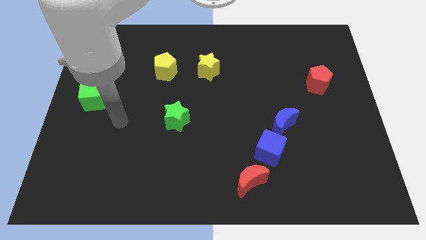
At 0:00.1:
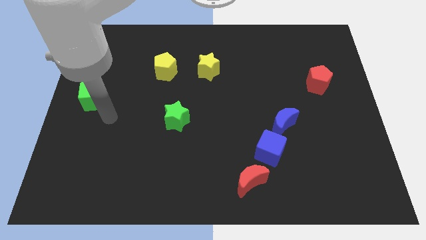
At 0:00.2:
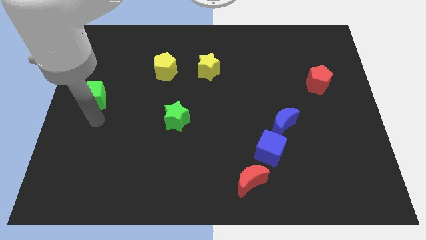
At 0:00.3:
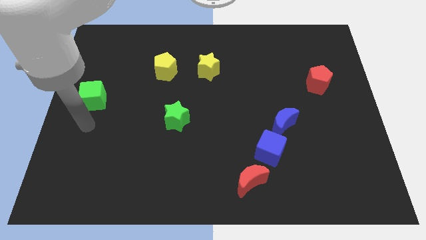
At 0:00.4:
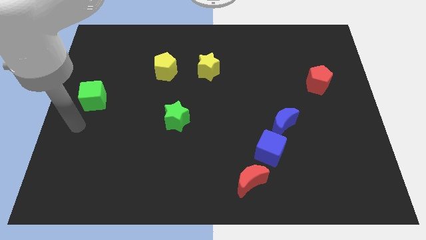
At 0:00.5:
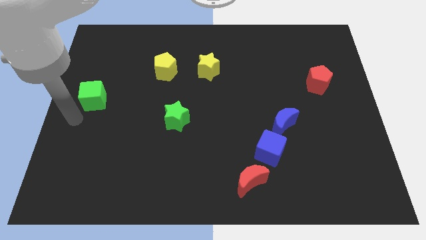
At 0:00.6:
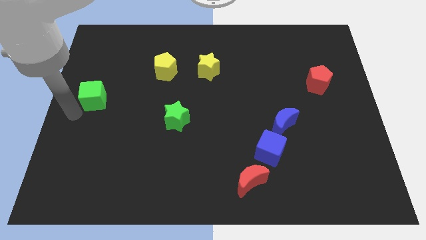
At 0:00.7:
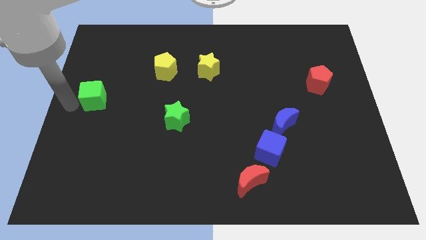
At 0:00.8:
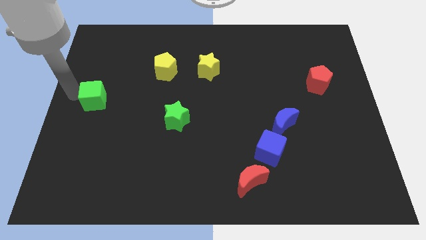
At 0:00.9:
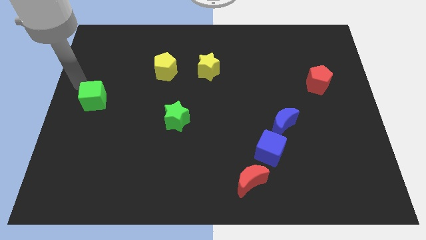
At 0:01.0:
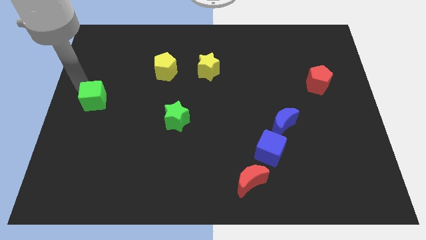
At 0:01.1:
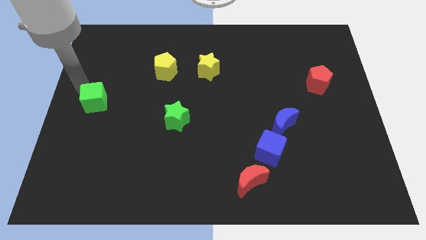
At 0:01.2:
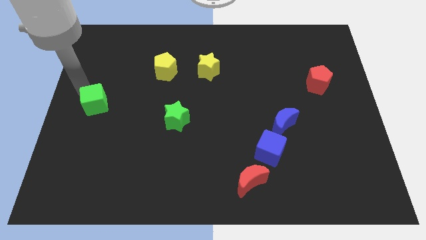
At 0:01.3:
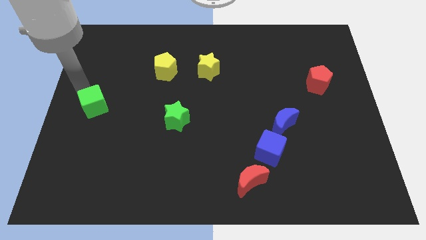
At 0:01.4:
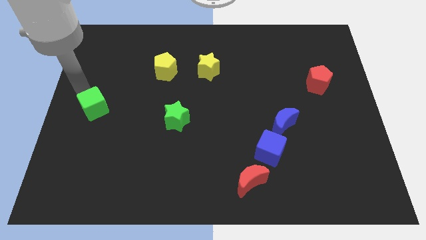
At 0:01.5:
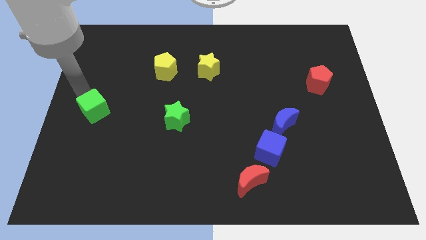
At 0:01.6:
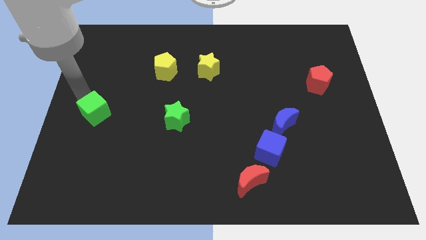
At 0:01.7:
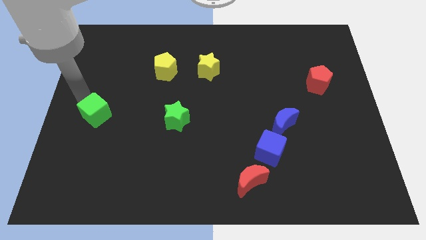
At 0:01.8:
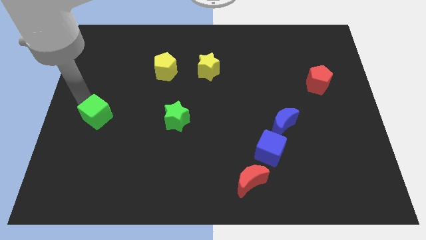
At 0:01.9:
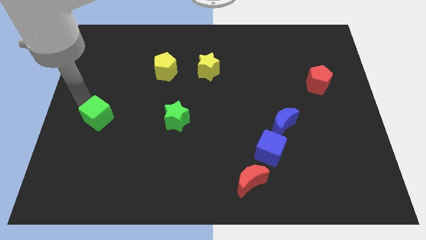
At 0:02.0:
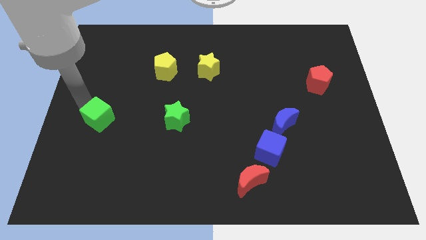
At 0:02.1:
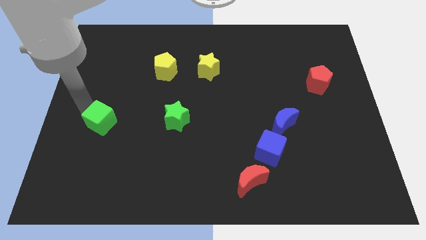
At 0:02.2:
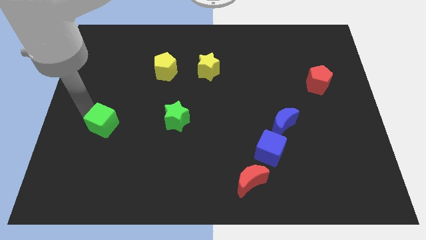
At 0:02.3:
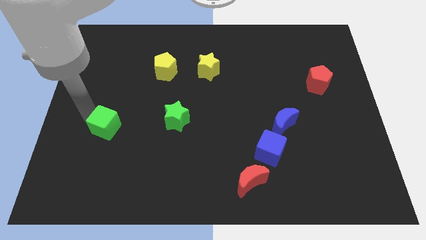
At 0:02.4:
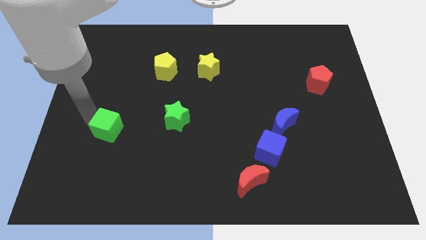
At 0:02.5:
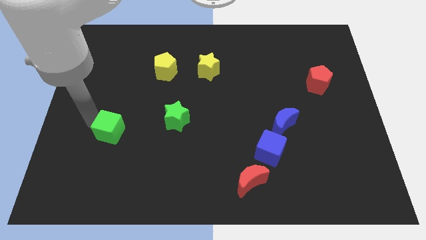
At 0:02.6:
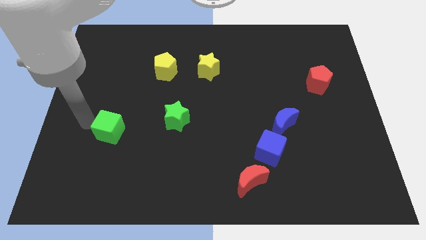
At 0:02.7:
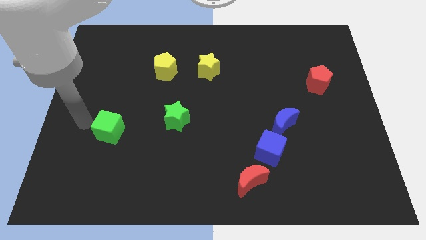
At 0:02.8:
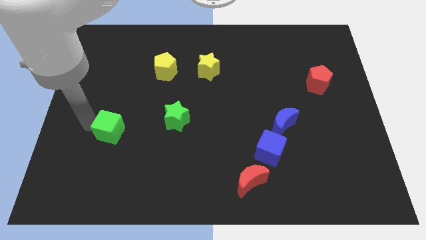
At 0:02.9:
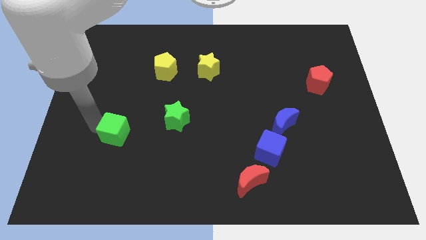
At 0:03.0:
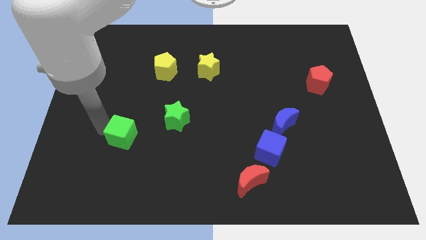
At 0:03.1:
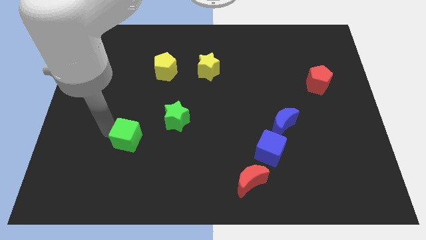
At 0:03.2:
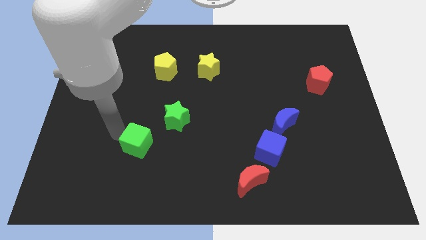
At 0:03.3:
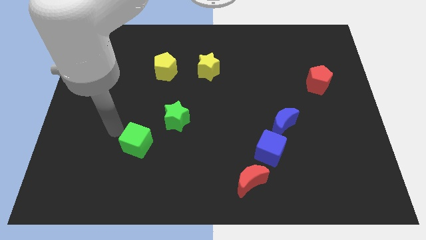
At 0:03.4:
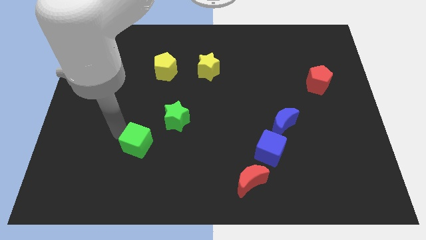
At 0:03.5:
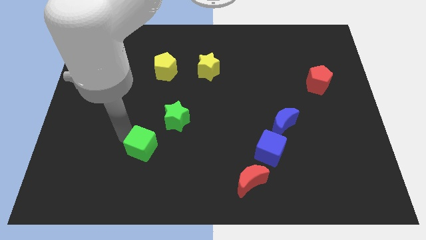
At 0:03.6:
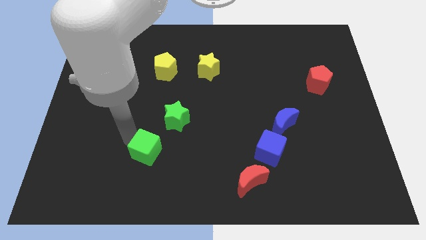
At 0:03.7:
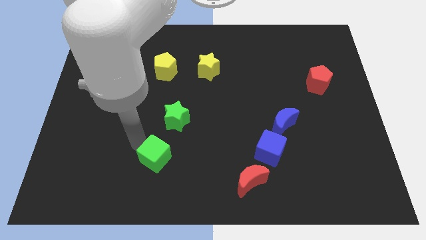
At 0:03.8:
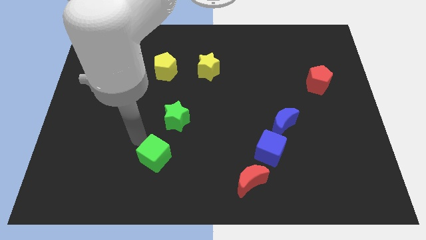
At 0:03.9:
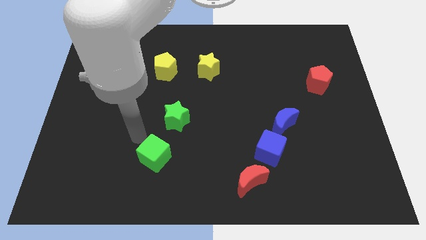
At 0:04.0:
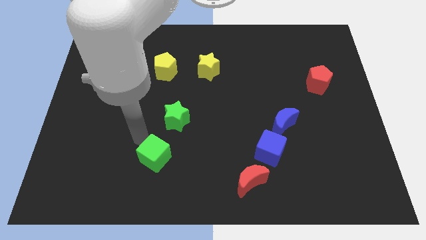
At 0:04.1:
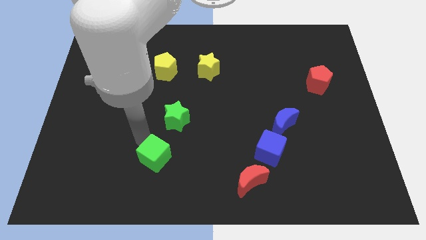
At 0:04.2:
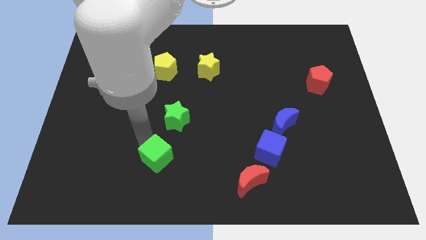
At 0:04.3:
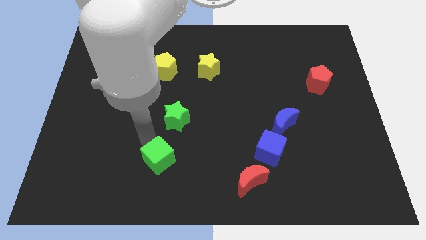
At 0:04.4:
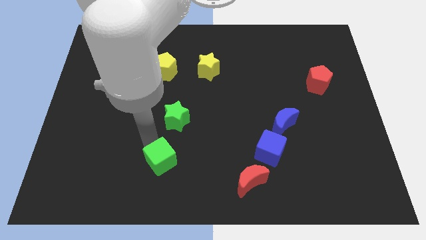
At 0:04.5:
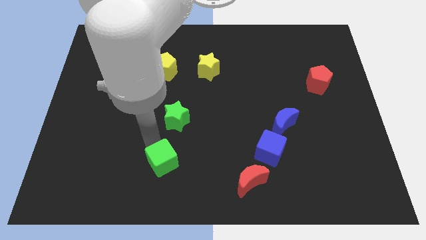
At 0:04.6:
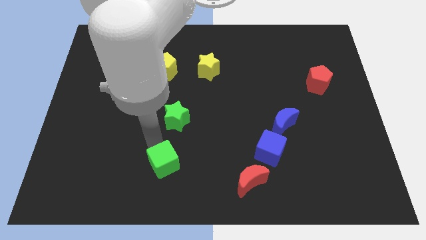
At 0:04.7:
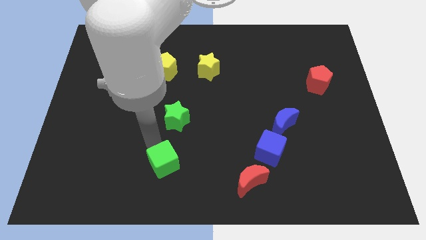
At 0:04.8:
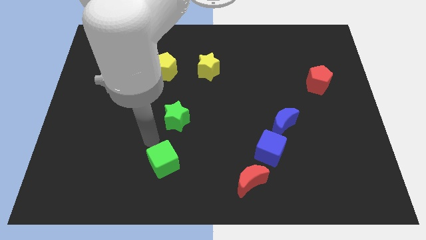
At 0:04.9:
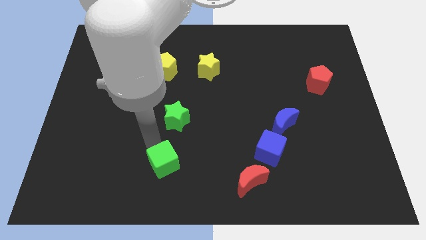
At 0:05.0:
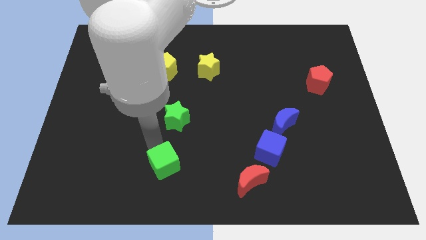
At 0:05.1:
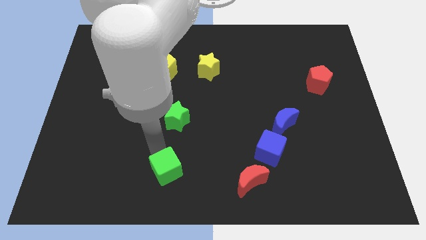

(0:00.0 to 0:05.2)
put the green cube to the bottom side

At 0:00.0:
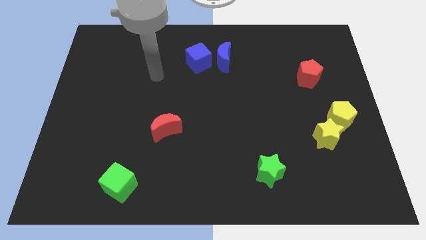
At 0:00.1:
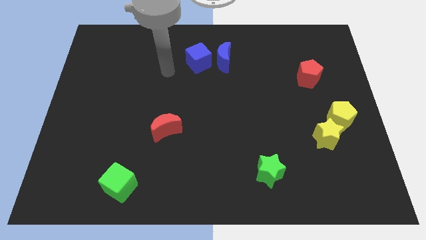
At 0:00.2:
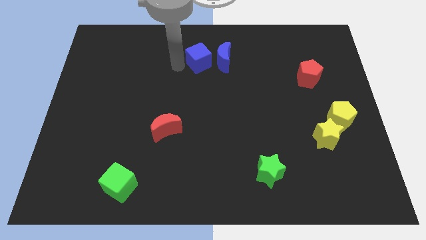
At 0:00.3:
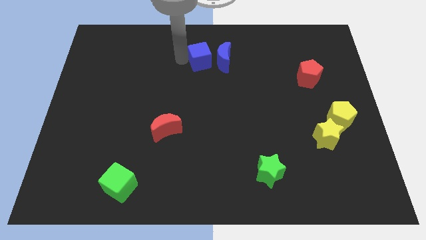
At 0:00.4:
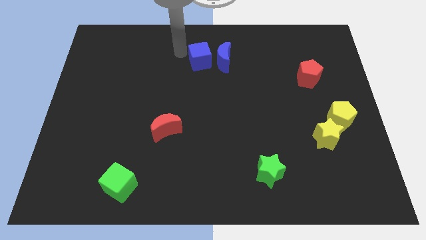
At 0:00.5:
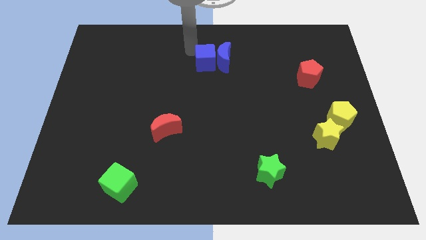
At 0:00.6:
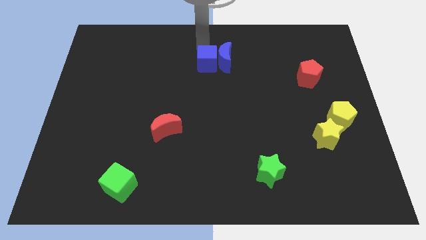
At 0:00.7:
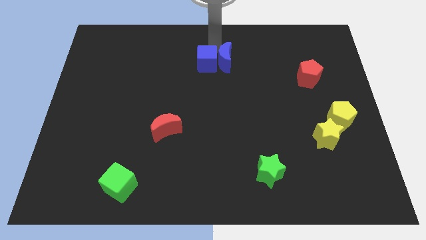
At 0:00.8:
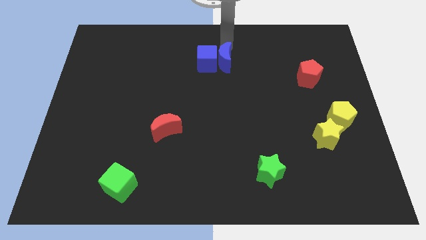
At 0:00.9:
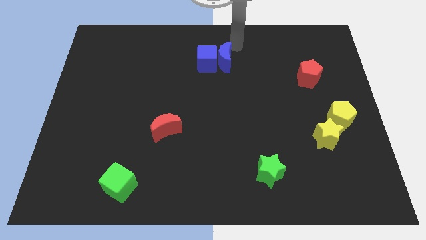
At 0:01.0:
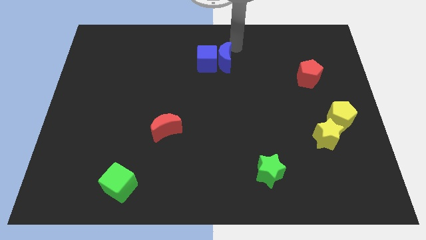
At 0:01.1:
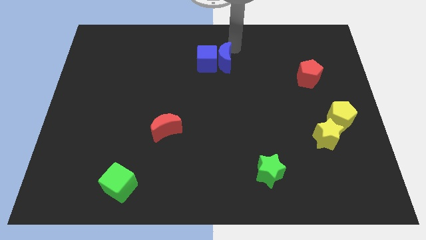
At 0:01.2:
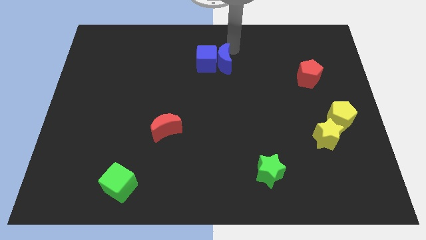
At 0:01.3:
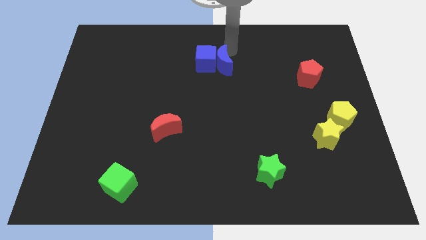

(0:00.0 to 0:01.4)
push the blue moon to the center

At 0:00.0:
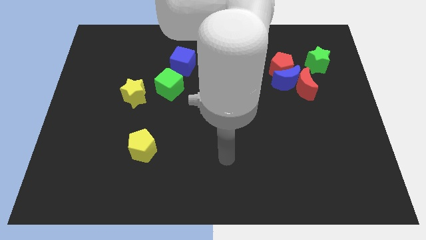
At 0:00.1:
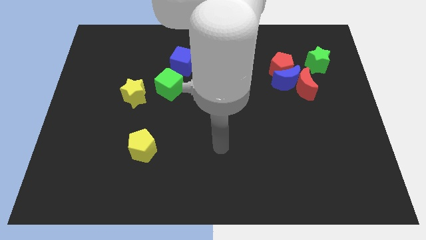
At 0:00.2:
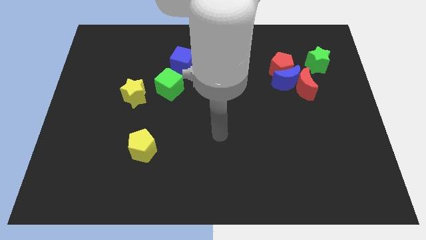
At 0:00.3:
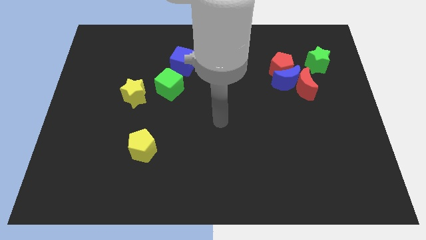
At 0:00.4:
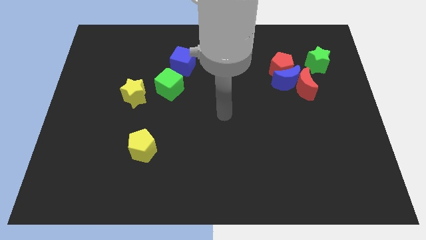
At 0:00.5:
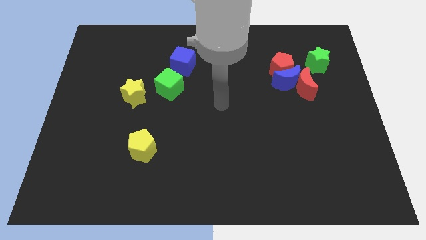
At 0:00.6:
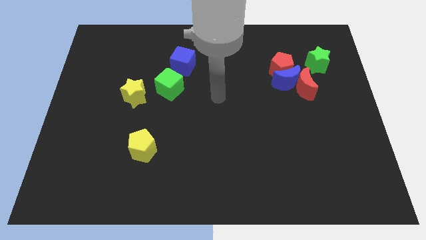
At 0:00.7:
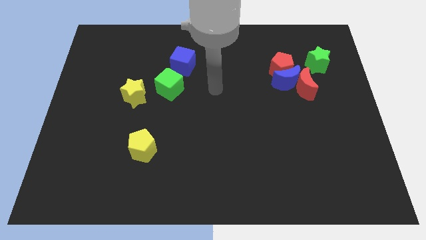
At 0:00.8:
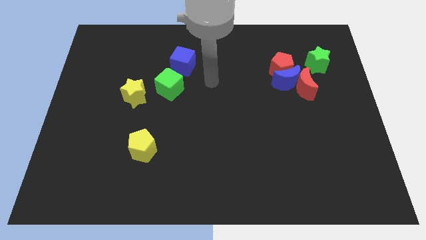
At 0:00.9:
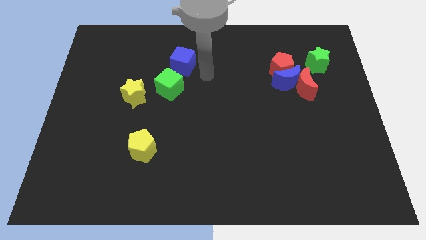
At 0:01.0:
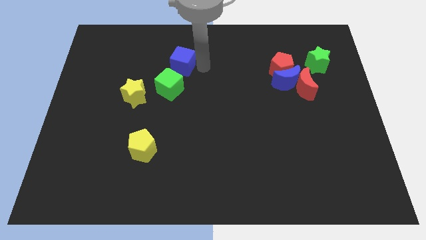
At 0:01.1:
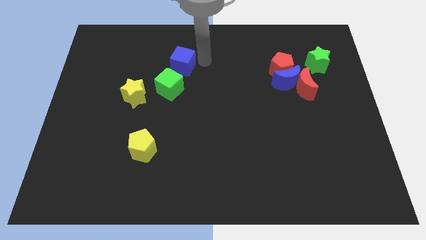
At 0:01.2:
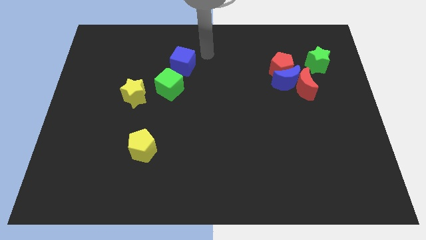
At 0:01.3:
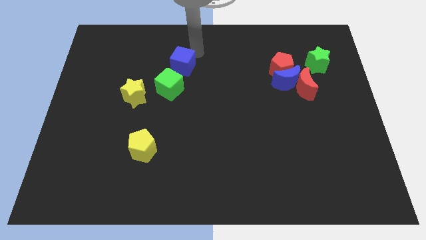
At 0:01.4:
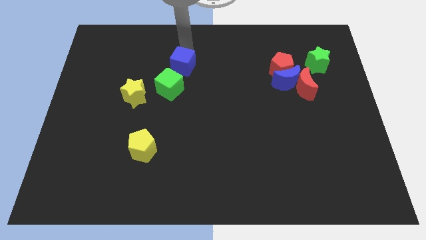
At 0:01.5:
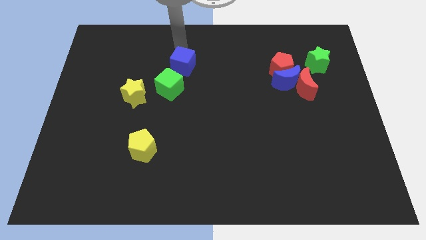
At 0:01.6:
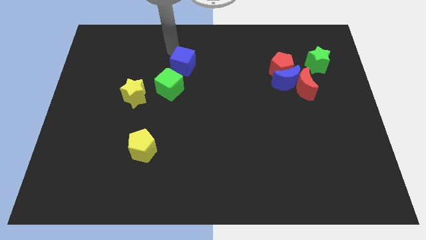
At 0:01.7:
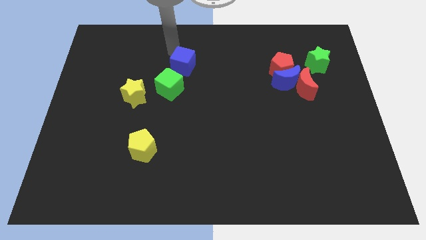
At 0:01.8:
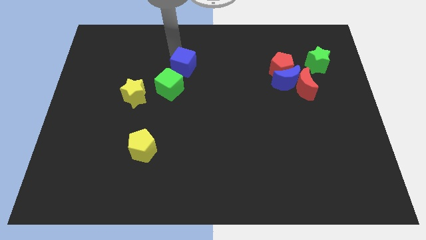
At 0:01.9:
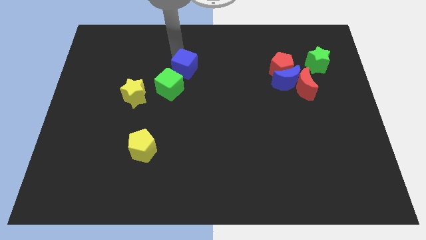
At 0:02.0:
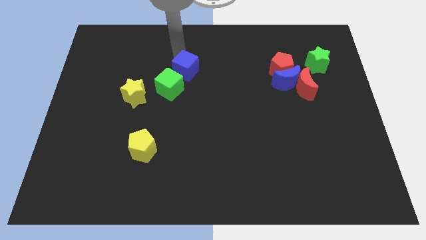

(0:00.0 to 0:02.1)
put the blue cube to the middle of the board
